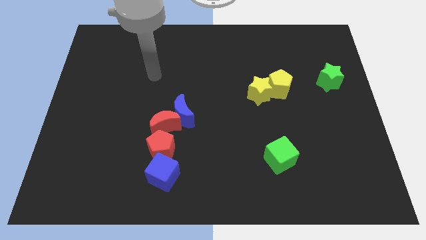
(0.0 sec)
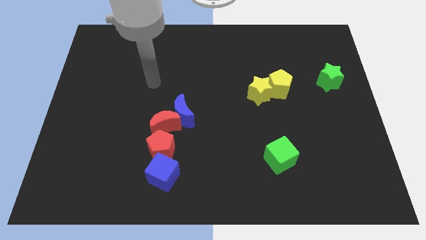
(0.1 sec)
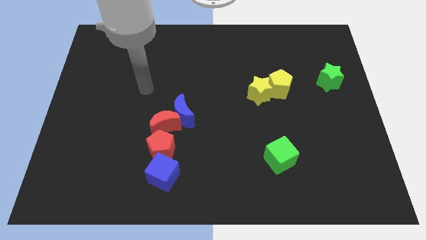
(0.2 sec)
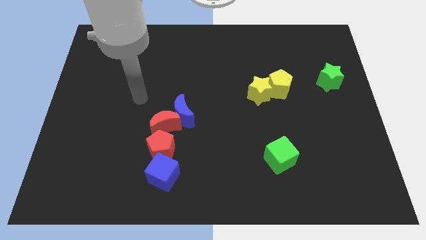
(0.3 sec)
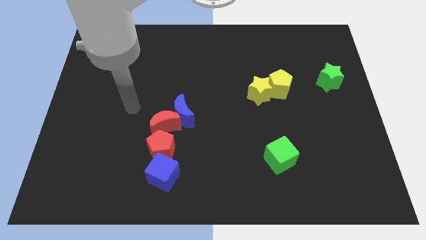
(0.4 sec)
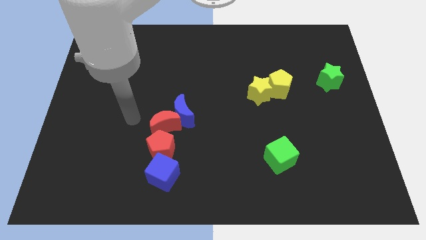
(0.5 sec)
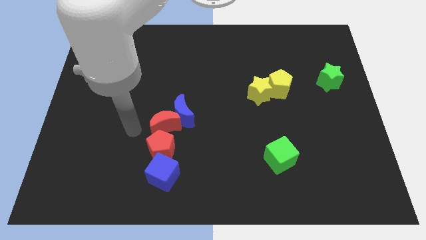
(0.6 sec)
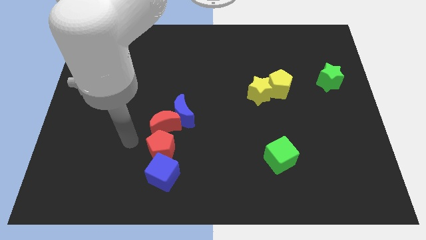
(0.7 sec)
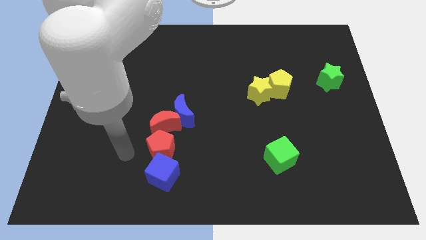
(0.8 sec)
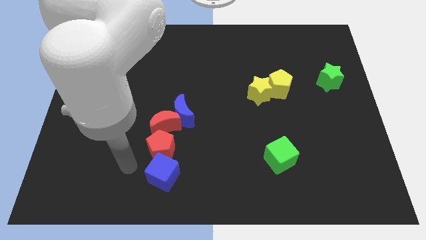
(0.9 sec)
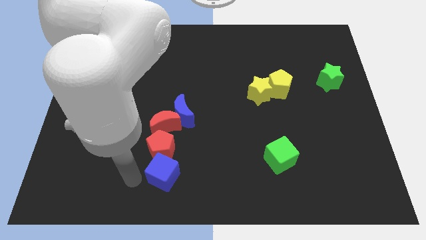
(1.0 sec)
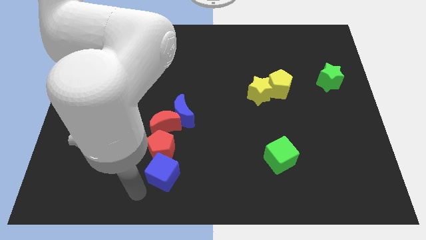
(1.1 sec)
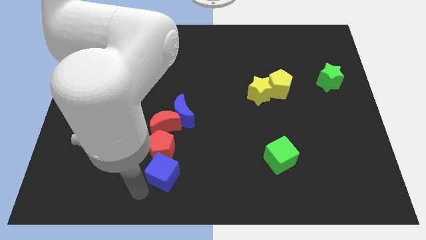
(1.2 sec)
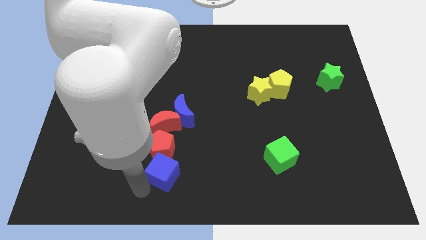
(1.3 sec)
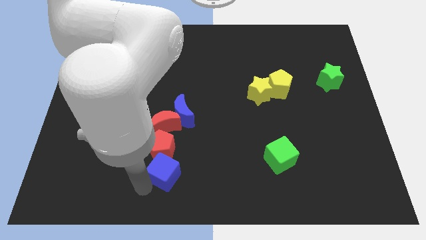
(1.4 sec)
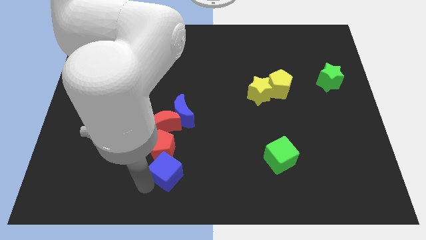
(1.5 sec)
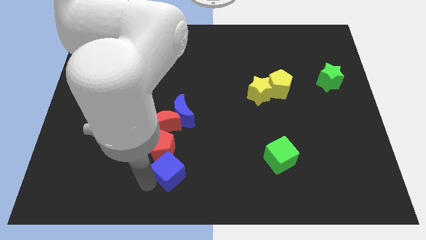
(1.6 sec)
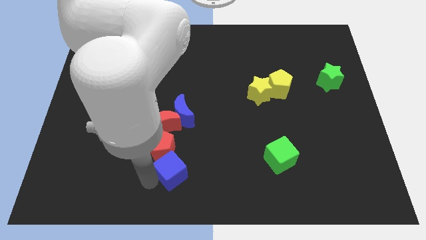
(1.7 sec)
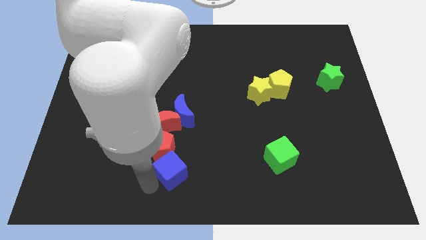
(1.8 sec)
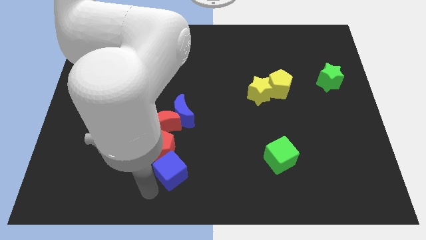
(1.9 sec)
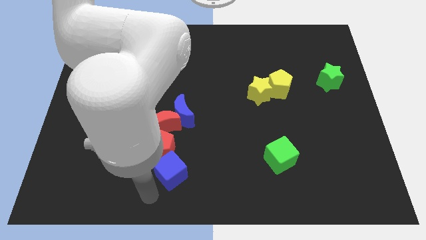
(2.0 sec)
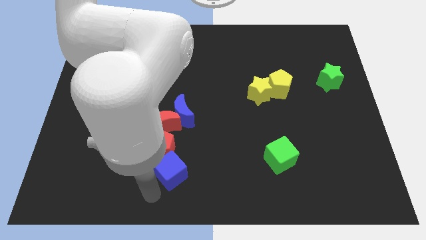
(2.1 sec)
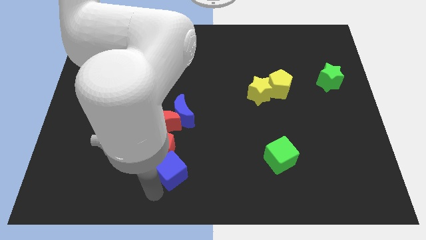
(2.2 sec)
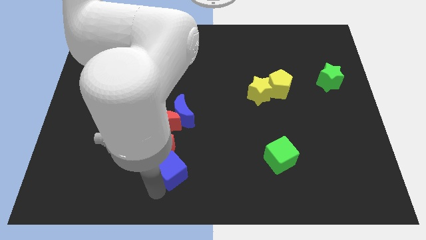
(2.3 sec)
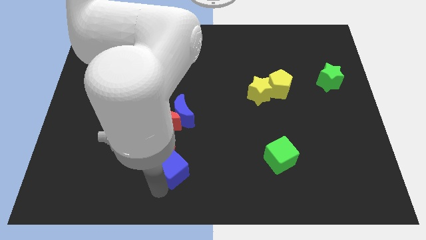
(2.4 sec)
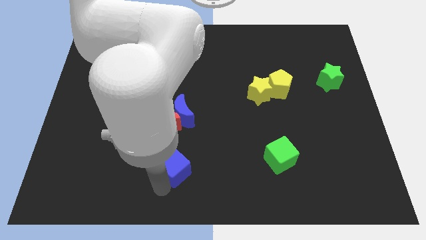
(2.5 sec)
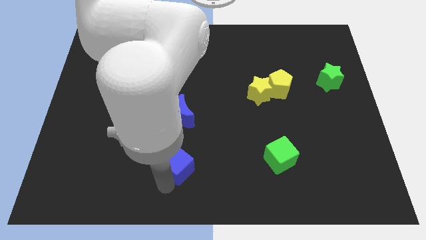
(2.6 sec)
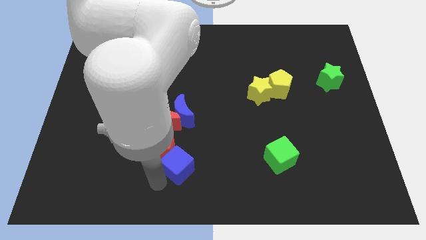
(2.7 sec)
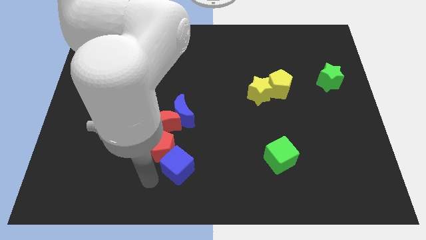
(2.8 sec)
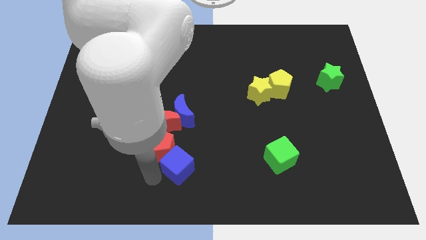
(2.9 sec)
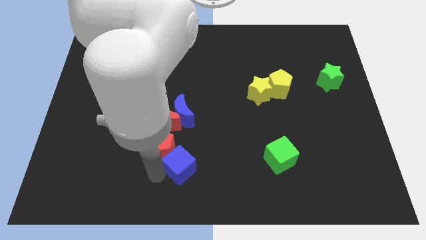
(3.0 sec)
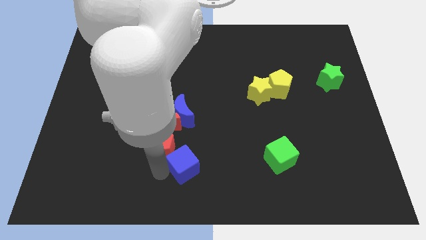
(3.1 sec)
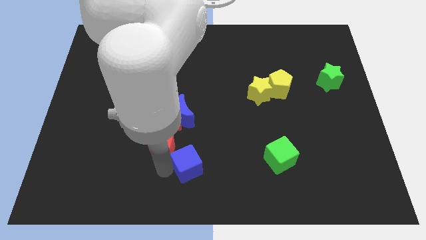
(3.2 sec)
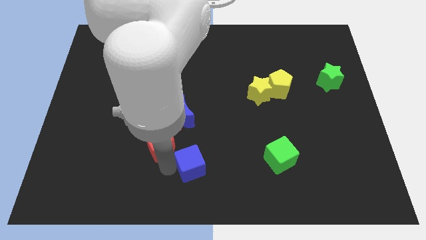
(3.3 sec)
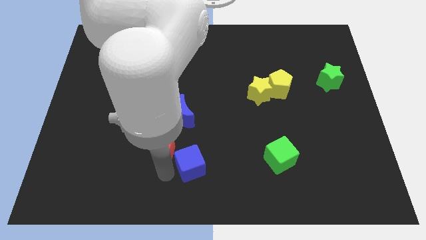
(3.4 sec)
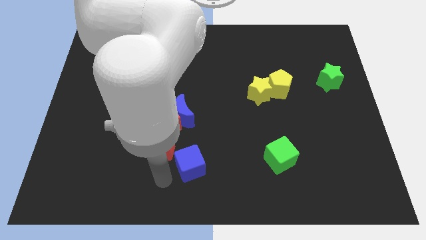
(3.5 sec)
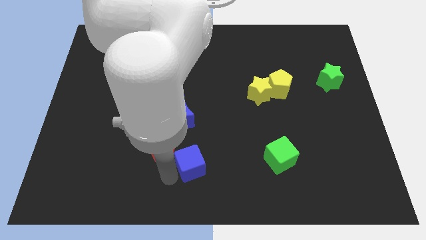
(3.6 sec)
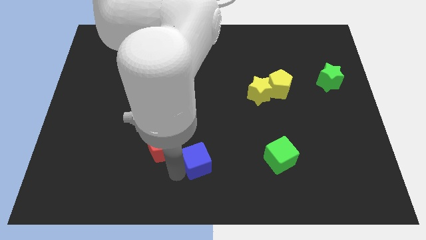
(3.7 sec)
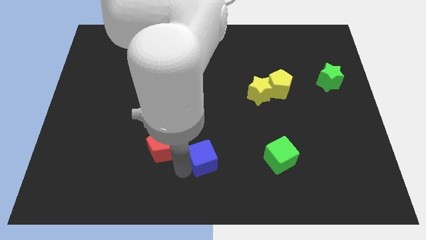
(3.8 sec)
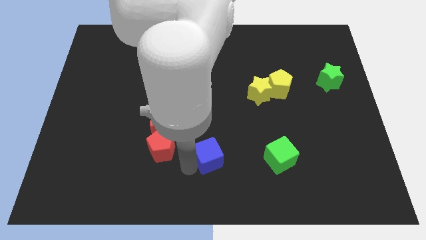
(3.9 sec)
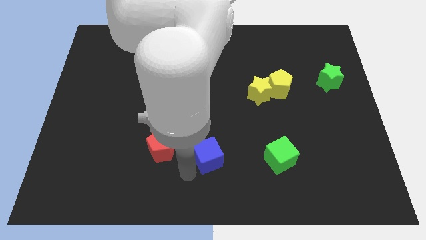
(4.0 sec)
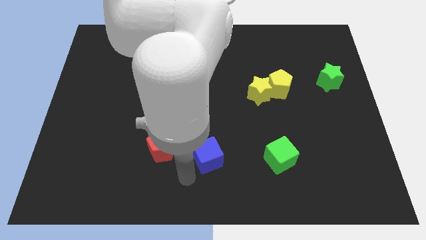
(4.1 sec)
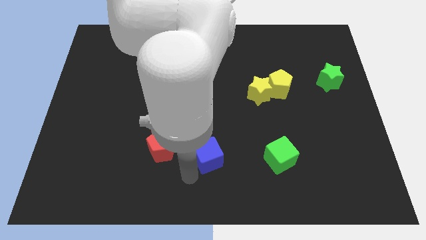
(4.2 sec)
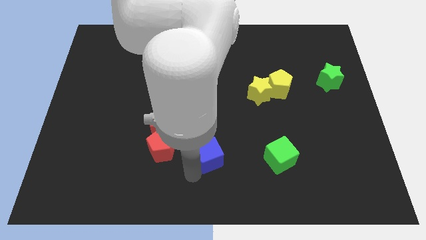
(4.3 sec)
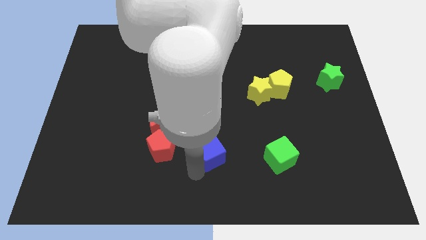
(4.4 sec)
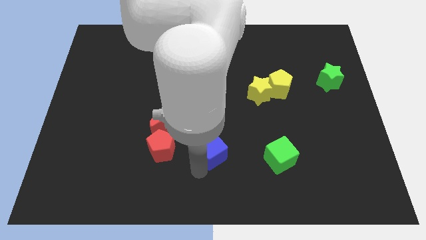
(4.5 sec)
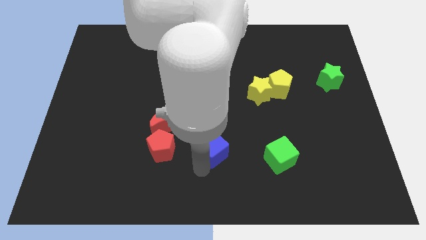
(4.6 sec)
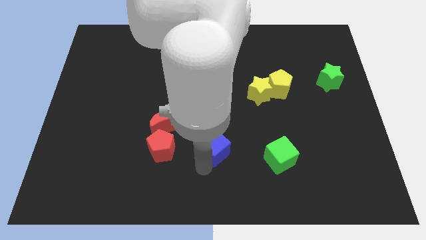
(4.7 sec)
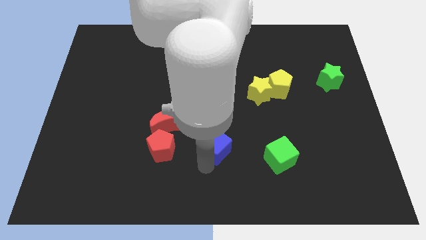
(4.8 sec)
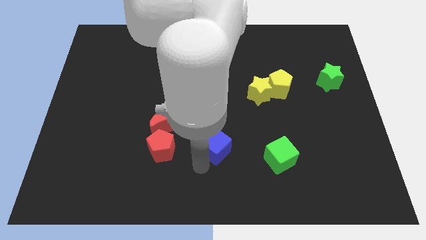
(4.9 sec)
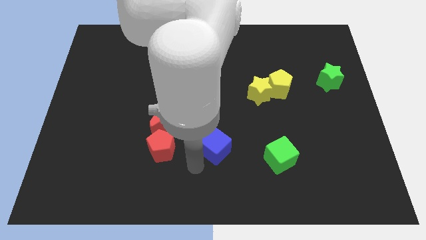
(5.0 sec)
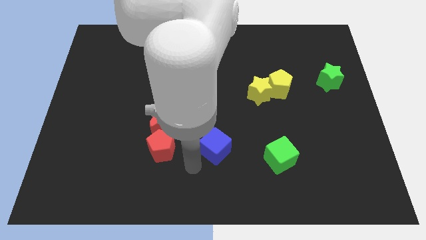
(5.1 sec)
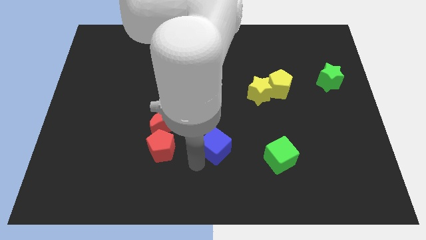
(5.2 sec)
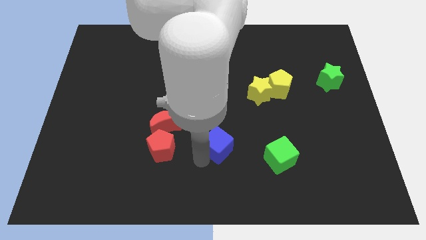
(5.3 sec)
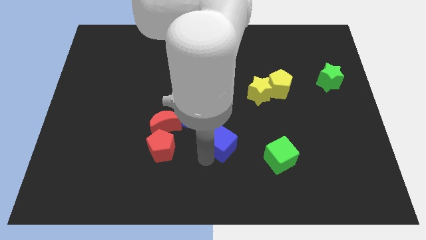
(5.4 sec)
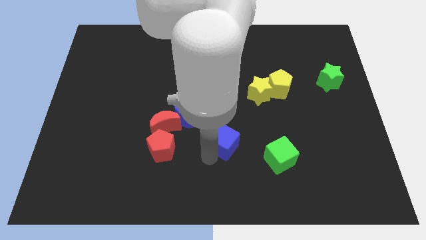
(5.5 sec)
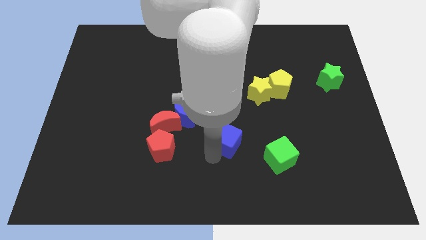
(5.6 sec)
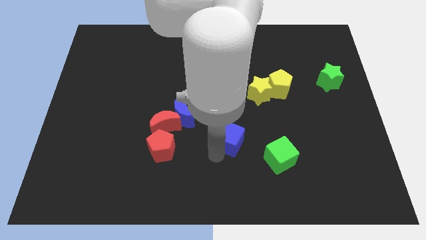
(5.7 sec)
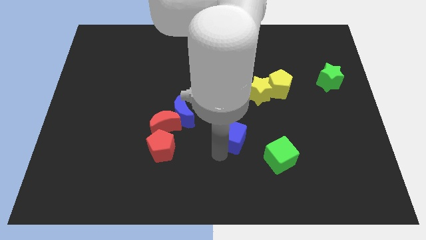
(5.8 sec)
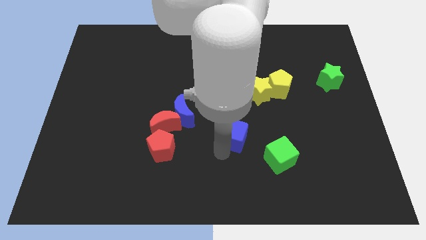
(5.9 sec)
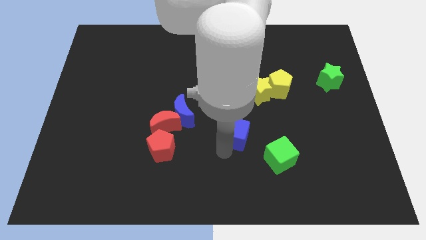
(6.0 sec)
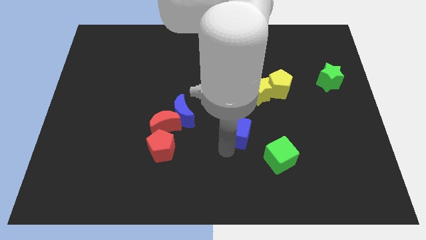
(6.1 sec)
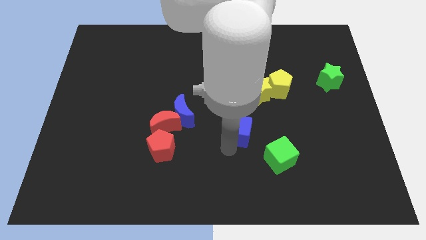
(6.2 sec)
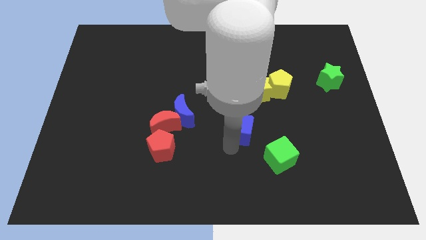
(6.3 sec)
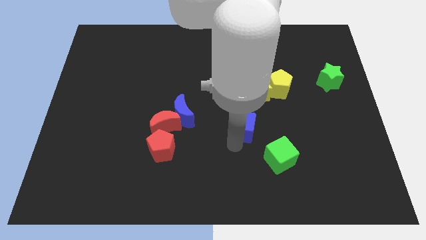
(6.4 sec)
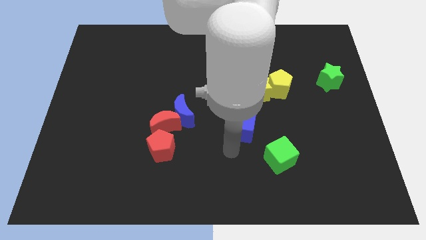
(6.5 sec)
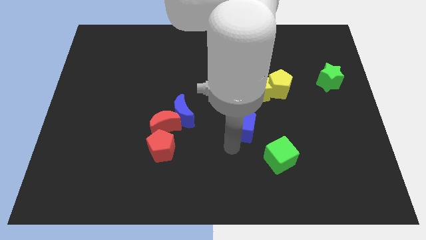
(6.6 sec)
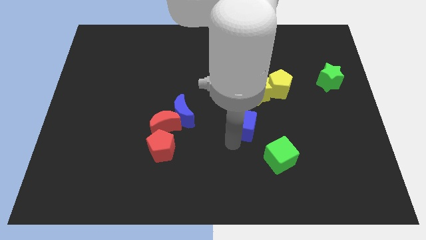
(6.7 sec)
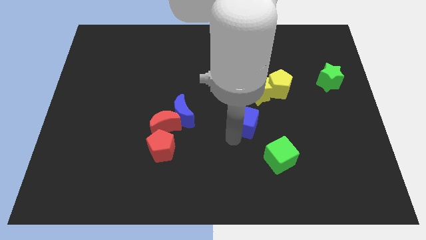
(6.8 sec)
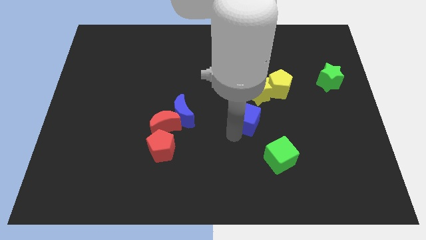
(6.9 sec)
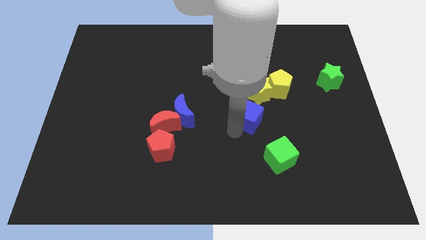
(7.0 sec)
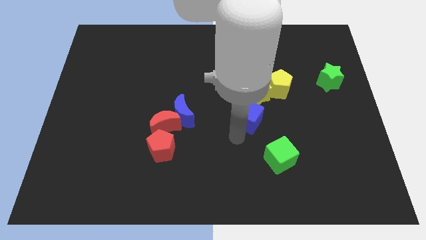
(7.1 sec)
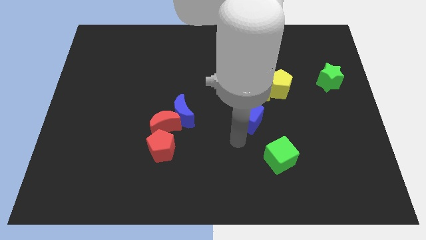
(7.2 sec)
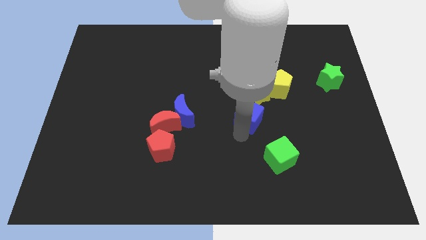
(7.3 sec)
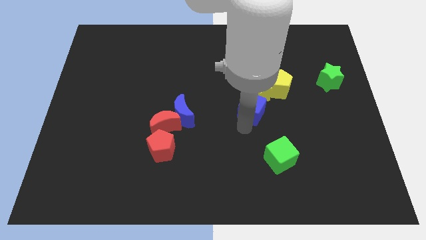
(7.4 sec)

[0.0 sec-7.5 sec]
slide the blue cube towards the yellow star
